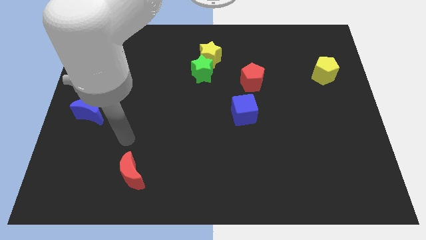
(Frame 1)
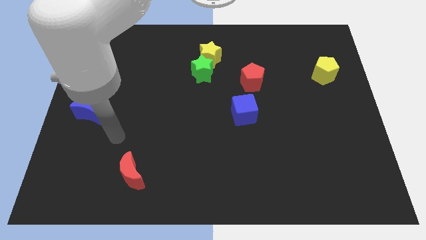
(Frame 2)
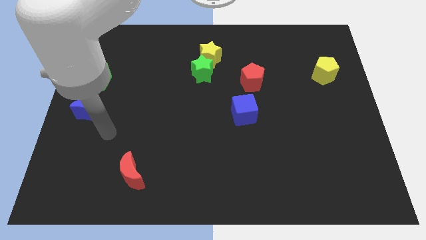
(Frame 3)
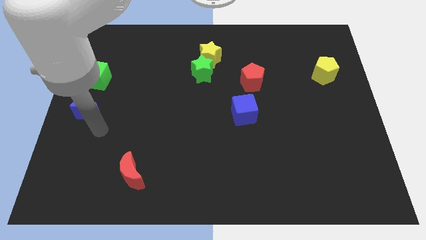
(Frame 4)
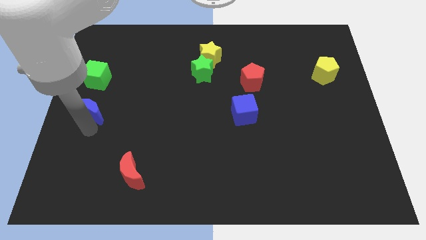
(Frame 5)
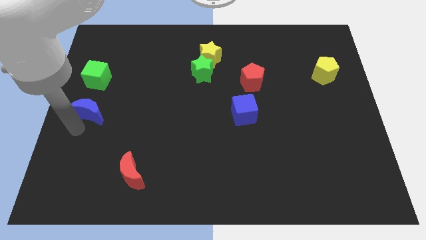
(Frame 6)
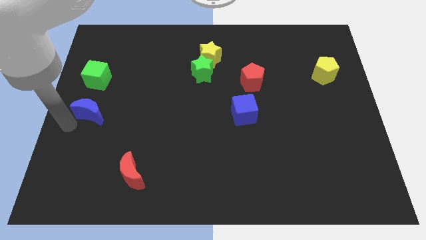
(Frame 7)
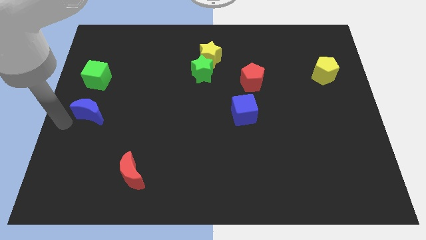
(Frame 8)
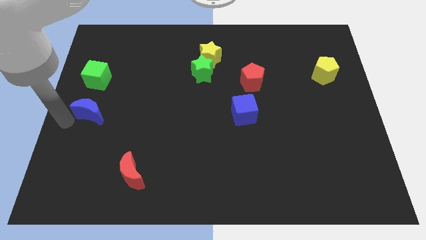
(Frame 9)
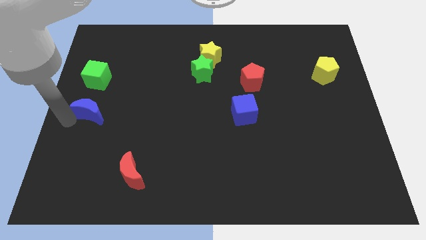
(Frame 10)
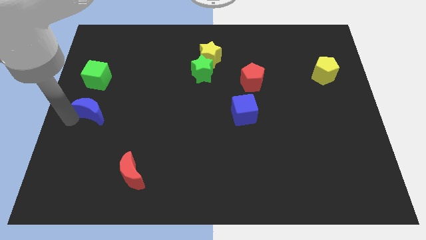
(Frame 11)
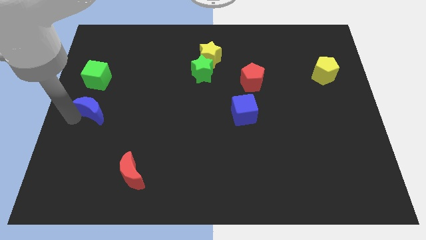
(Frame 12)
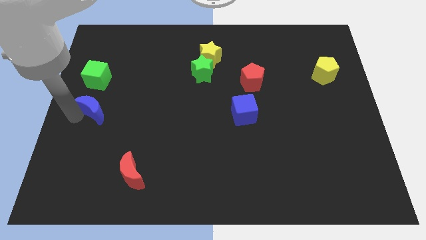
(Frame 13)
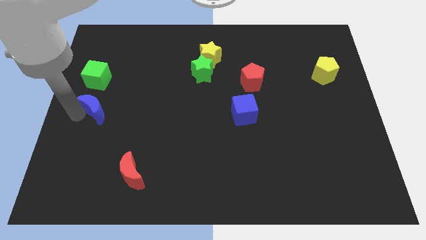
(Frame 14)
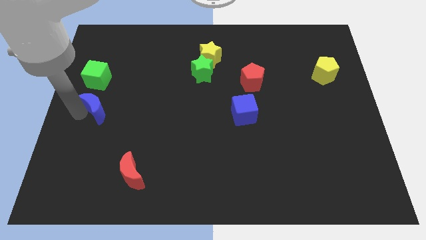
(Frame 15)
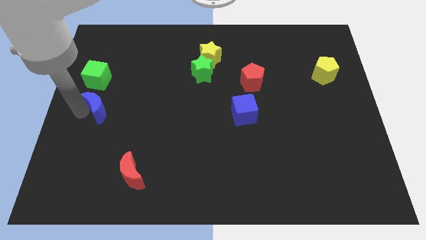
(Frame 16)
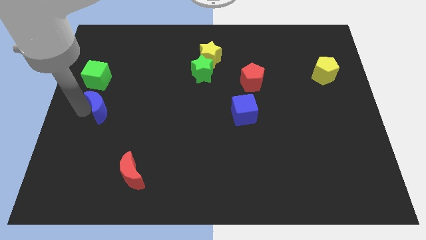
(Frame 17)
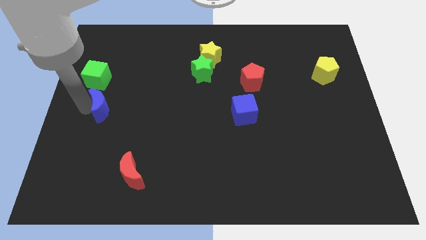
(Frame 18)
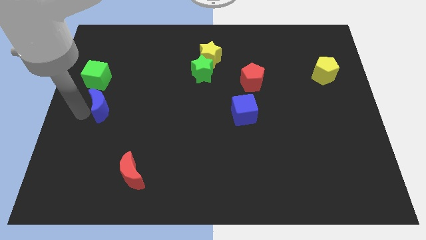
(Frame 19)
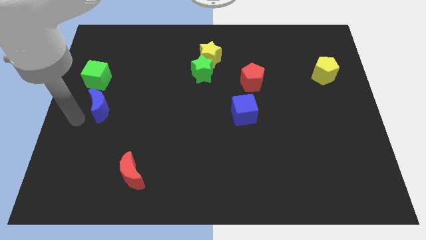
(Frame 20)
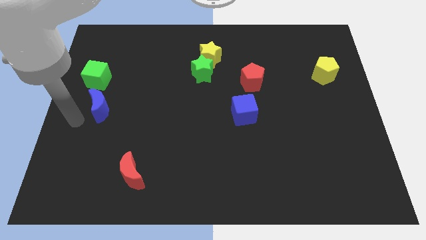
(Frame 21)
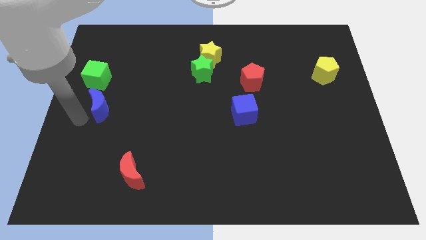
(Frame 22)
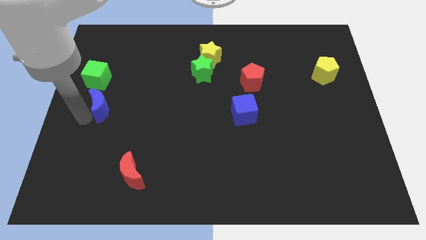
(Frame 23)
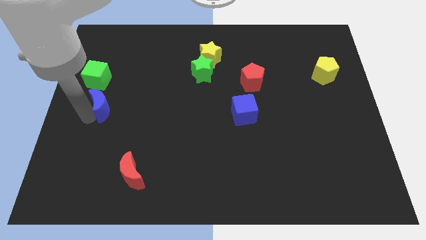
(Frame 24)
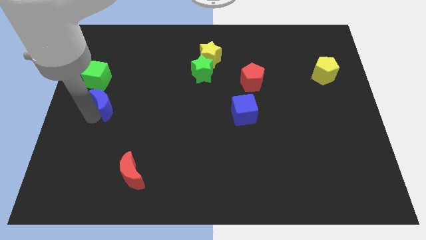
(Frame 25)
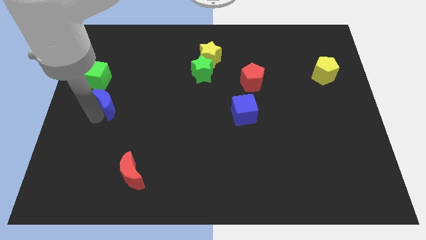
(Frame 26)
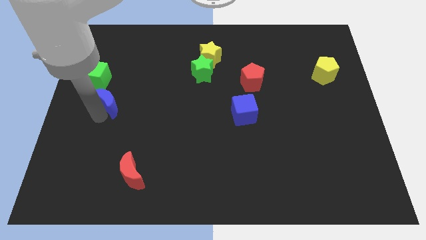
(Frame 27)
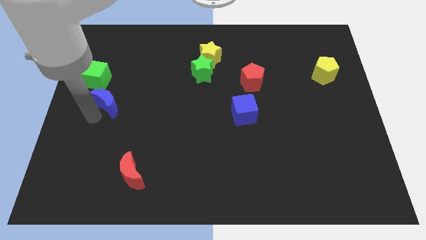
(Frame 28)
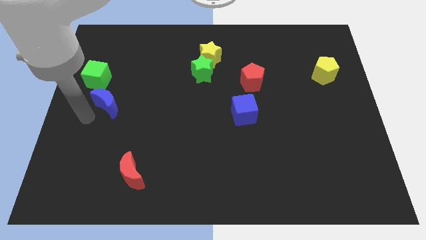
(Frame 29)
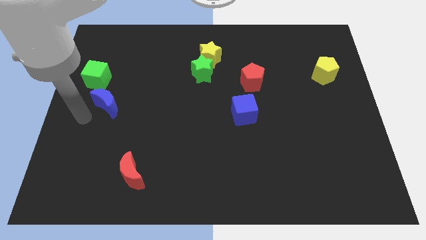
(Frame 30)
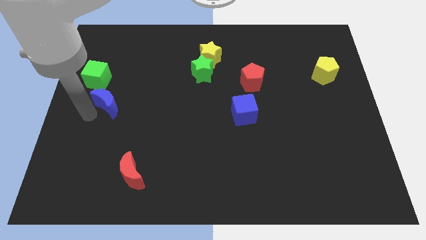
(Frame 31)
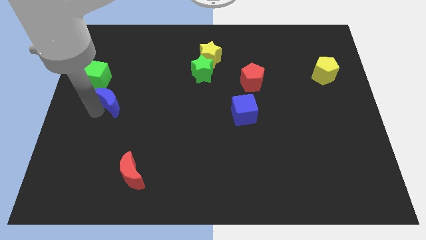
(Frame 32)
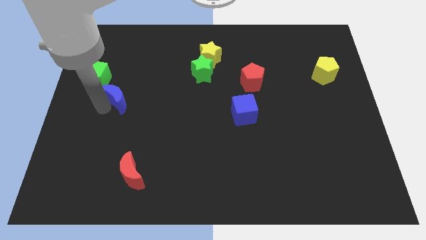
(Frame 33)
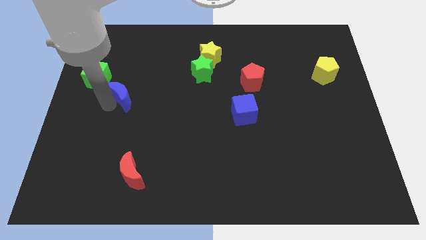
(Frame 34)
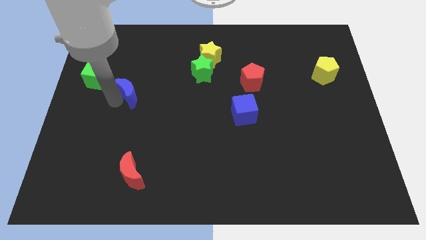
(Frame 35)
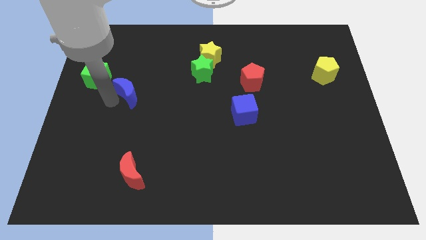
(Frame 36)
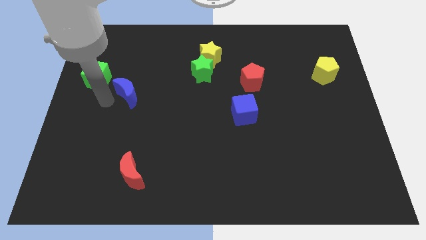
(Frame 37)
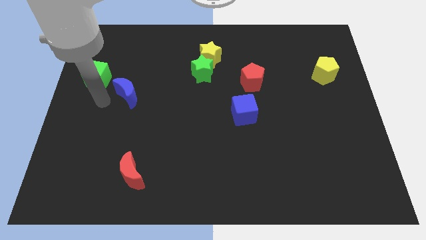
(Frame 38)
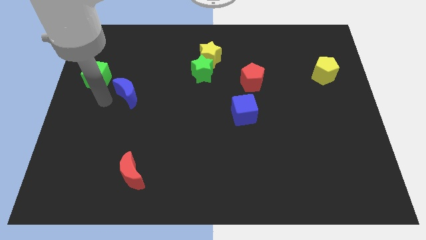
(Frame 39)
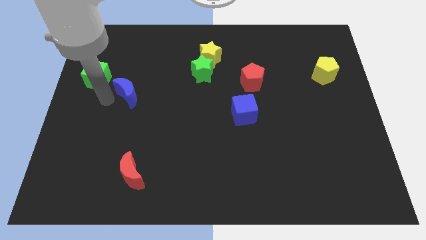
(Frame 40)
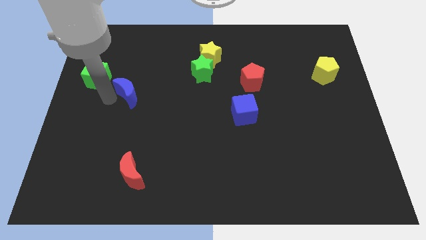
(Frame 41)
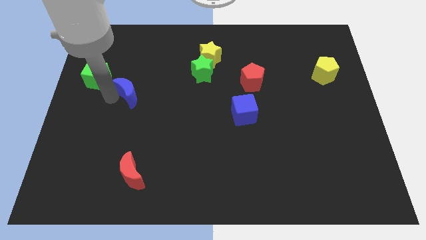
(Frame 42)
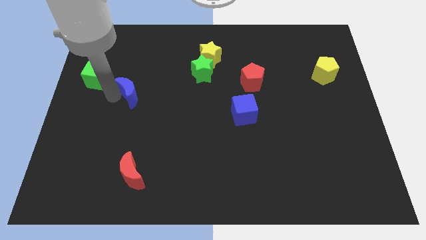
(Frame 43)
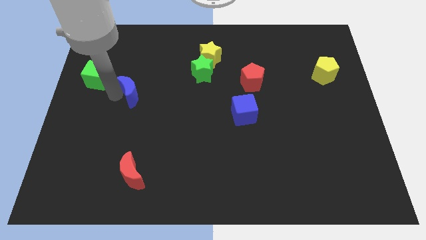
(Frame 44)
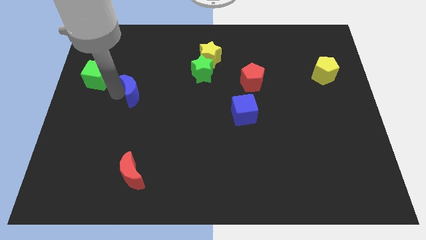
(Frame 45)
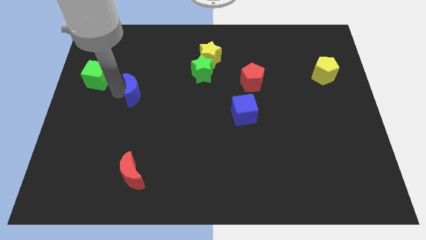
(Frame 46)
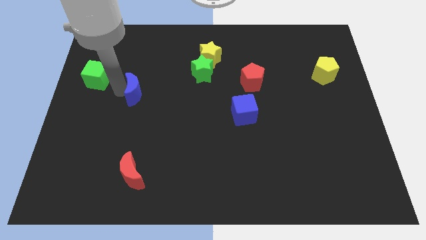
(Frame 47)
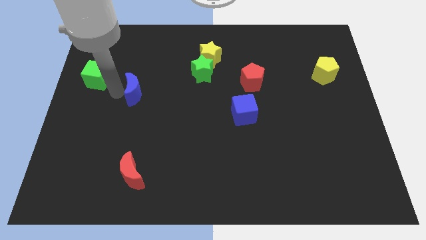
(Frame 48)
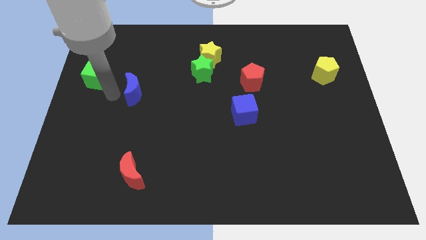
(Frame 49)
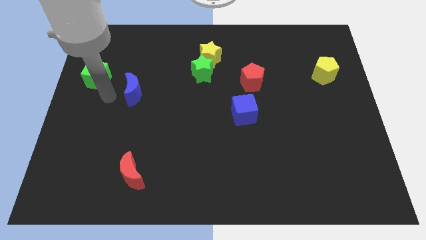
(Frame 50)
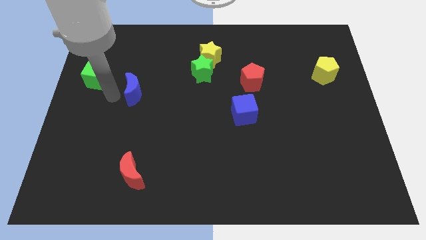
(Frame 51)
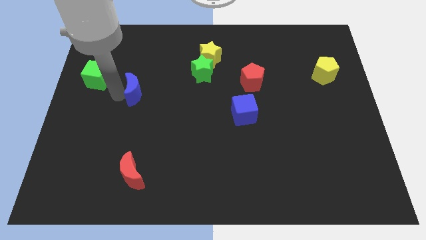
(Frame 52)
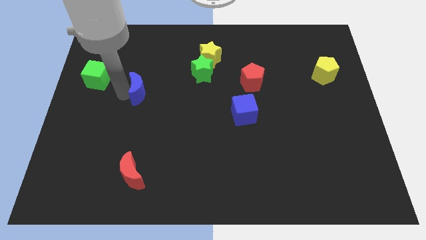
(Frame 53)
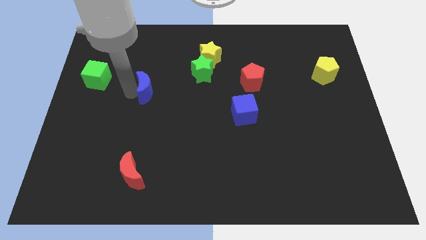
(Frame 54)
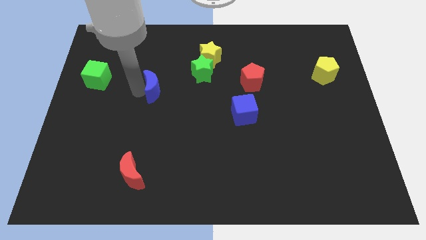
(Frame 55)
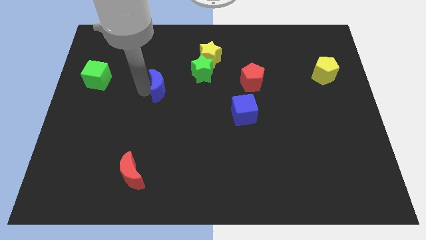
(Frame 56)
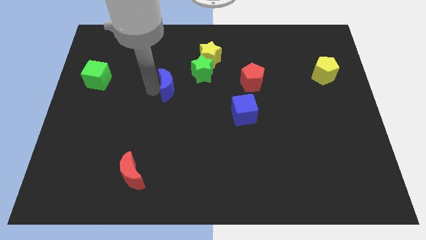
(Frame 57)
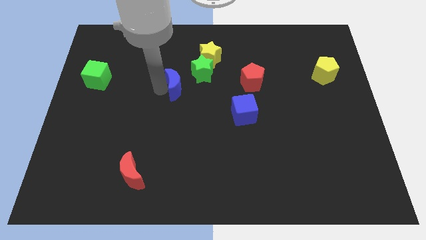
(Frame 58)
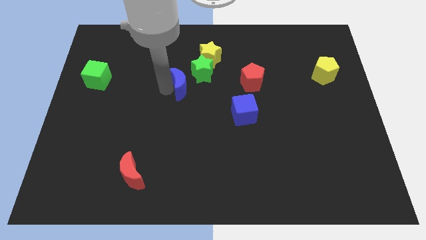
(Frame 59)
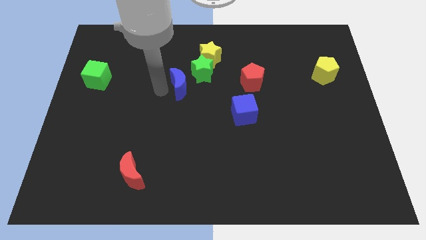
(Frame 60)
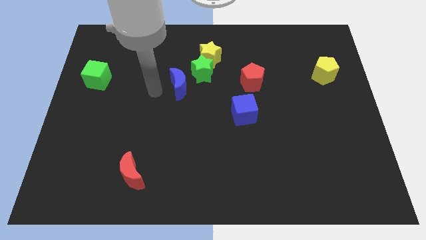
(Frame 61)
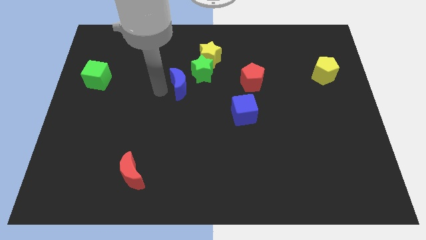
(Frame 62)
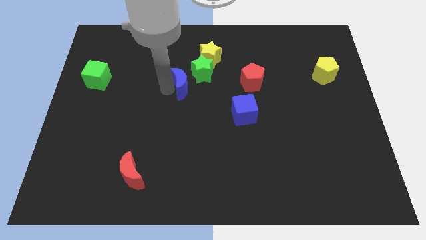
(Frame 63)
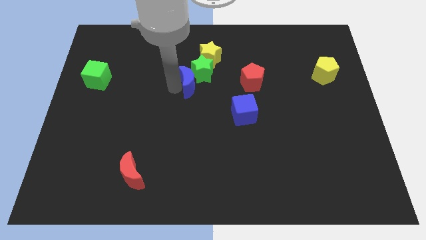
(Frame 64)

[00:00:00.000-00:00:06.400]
slide the blue moon to the left side of the red pentagon

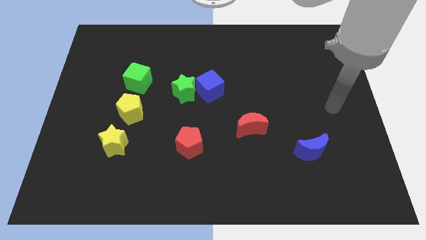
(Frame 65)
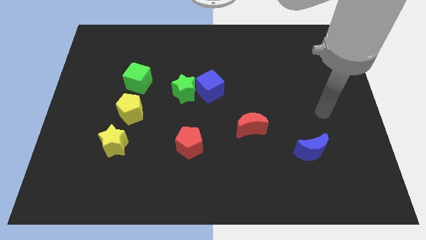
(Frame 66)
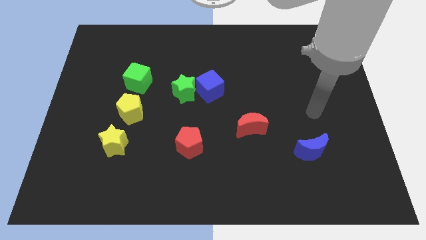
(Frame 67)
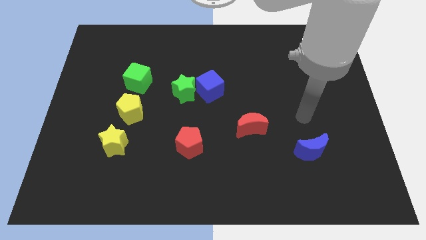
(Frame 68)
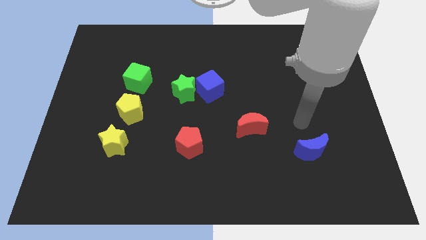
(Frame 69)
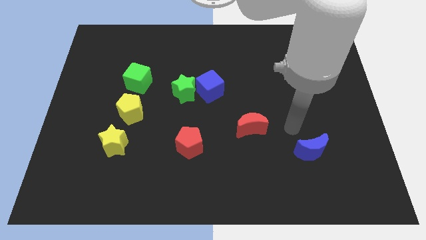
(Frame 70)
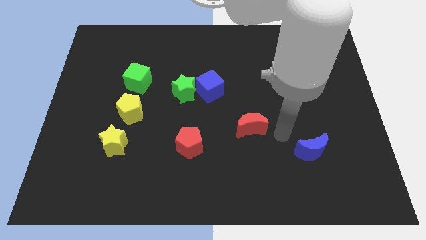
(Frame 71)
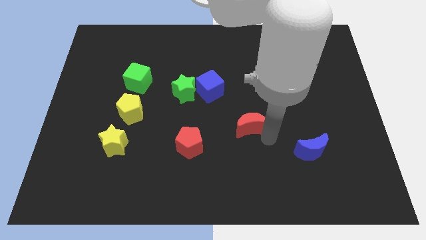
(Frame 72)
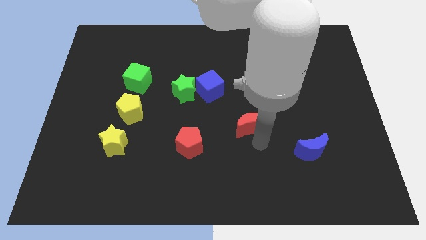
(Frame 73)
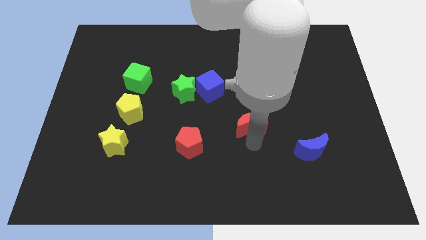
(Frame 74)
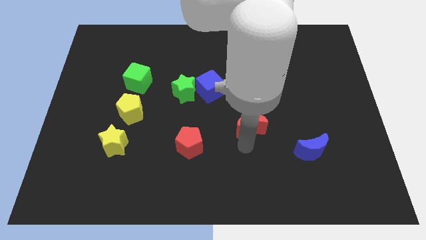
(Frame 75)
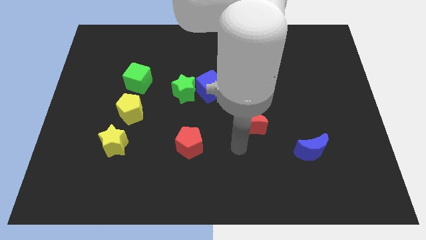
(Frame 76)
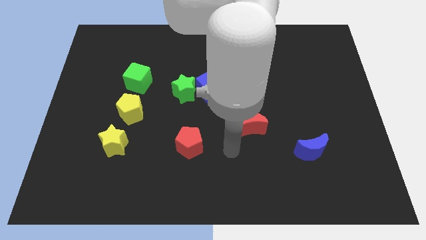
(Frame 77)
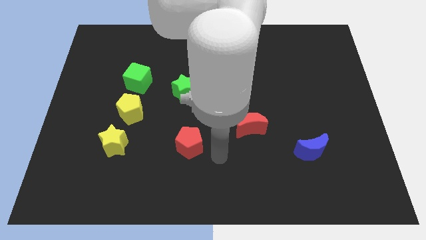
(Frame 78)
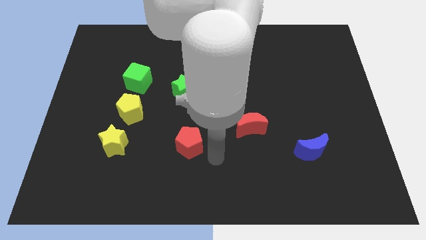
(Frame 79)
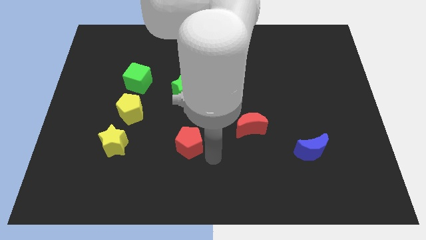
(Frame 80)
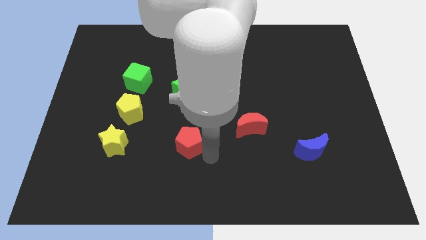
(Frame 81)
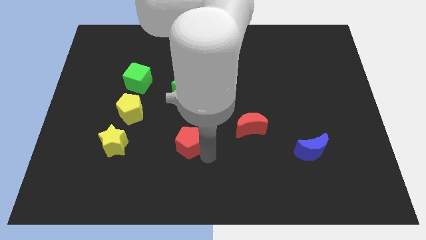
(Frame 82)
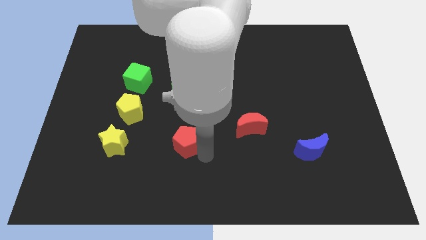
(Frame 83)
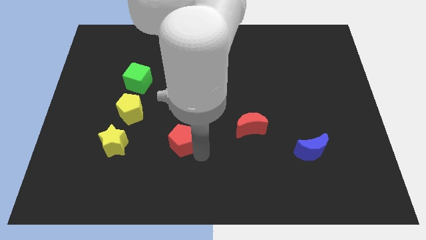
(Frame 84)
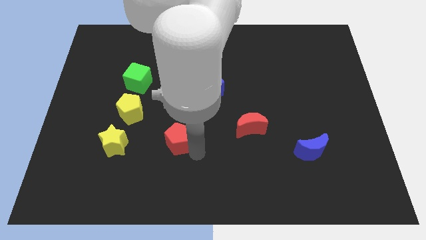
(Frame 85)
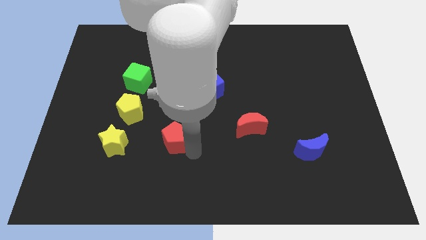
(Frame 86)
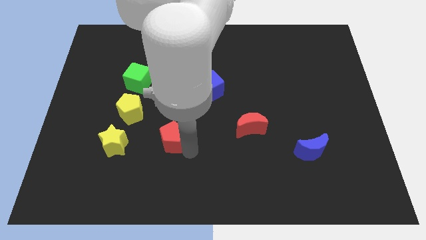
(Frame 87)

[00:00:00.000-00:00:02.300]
put the red pentagon to the bottom right of the yellow pentagon
